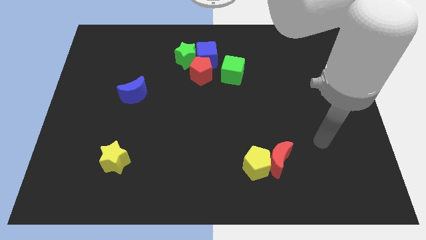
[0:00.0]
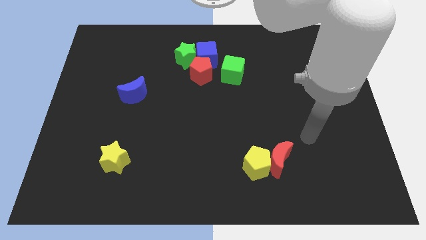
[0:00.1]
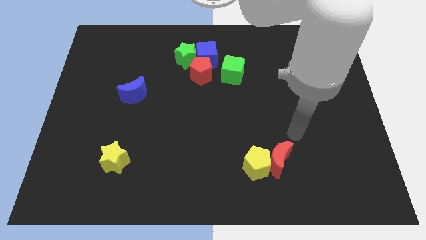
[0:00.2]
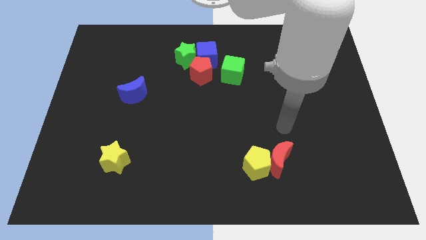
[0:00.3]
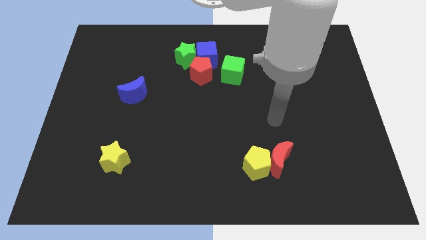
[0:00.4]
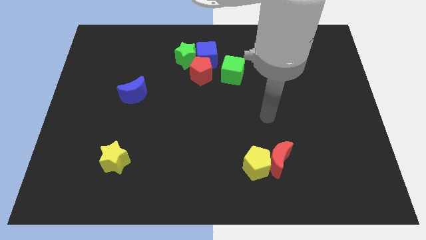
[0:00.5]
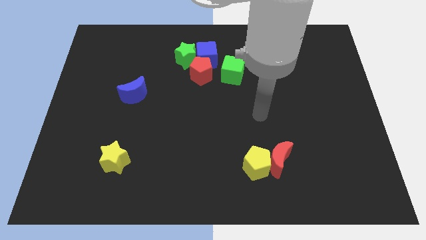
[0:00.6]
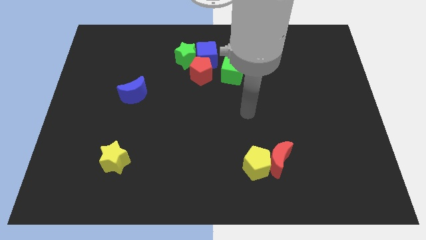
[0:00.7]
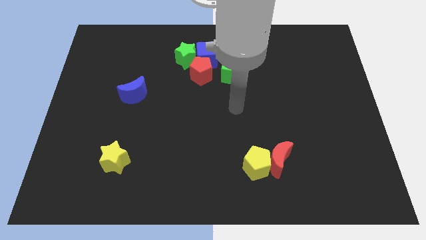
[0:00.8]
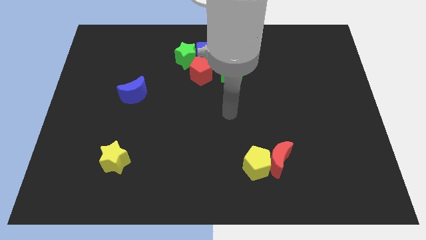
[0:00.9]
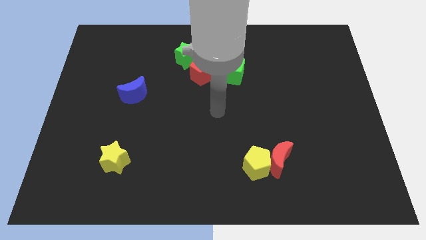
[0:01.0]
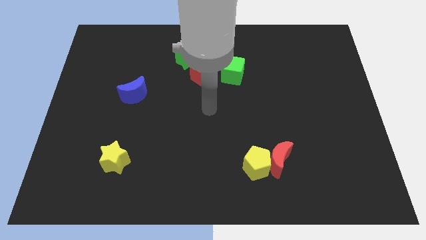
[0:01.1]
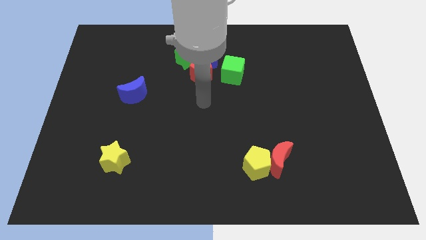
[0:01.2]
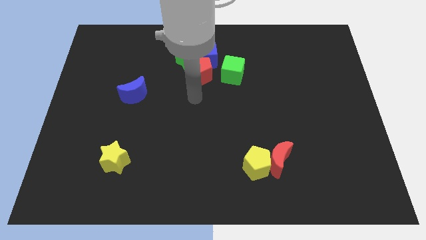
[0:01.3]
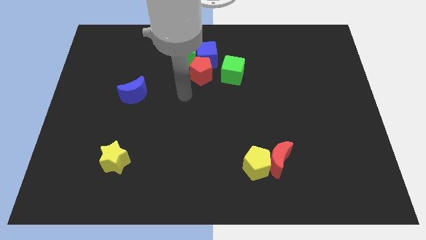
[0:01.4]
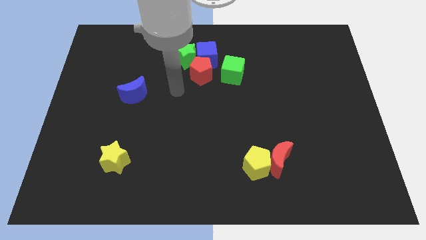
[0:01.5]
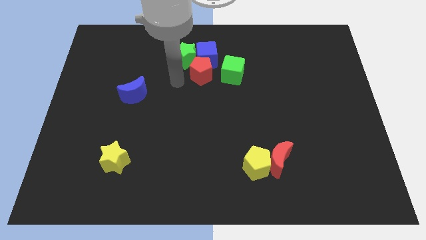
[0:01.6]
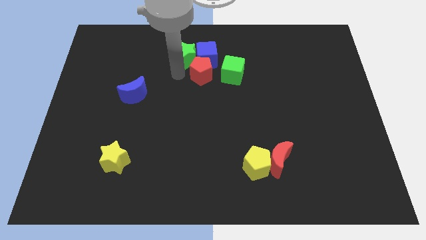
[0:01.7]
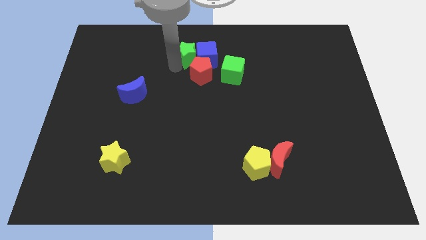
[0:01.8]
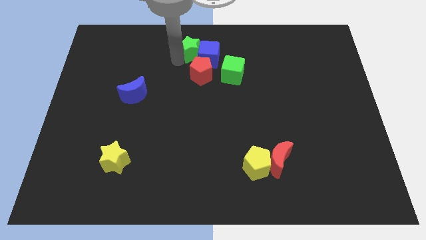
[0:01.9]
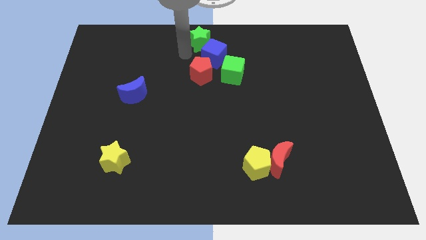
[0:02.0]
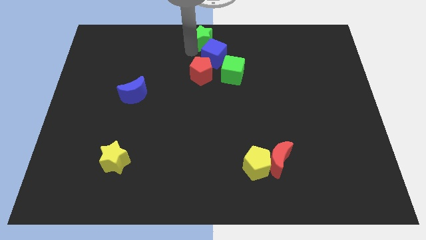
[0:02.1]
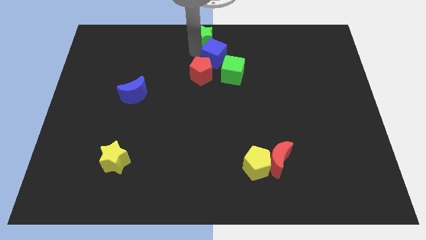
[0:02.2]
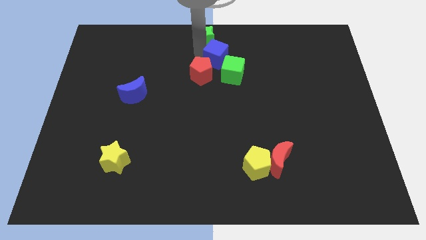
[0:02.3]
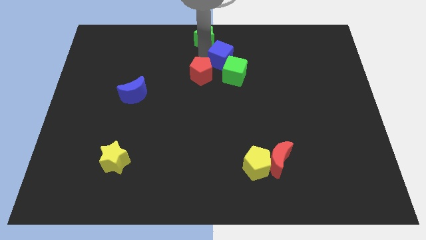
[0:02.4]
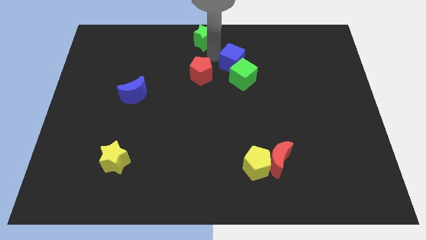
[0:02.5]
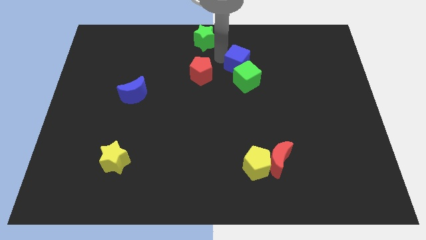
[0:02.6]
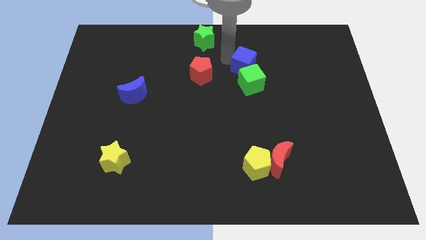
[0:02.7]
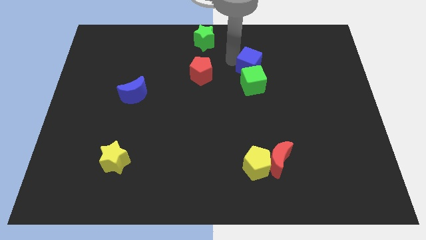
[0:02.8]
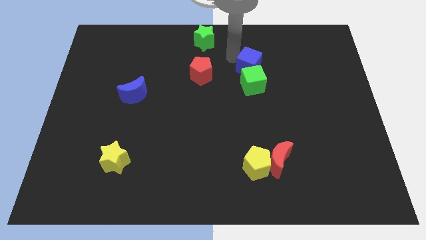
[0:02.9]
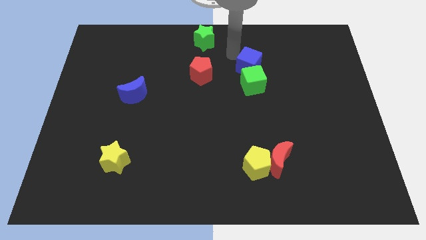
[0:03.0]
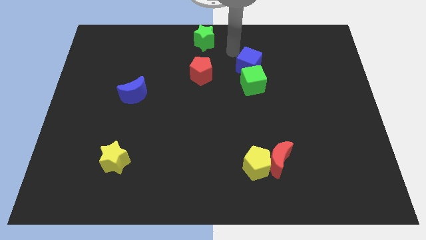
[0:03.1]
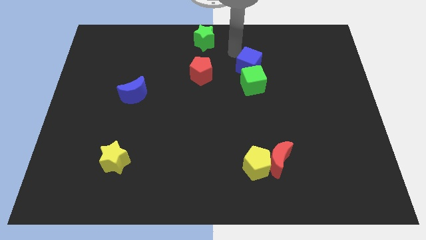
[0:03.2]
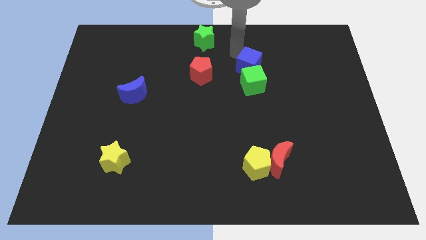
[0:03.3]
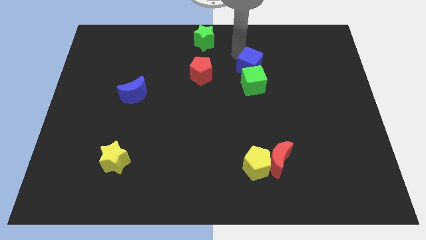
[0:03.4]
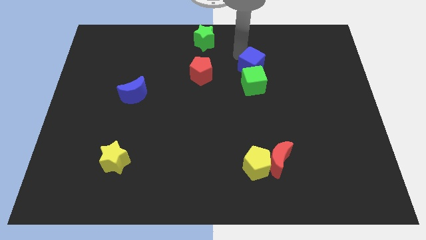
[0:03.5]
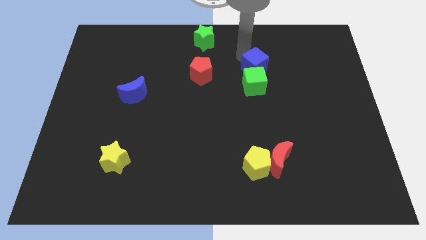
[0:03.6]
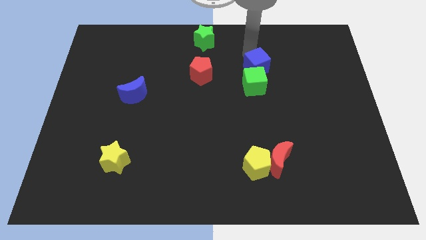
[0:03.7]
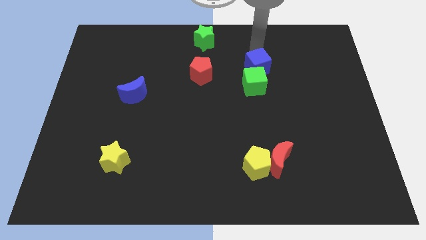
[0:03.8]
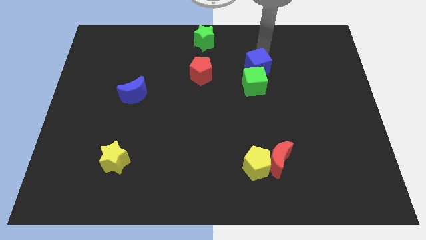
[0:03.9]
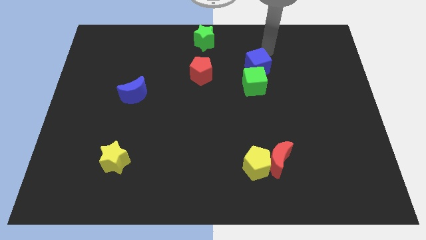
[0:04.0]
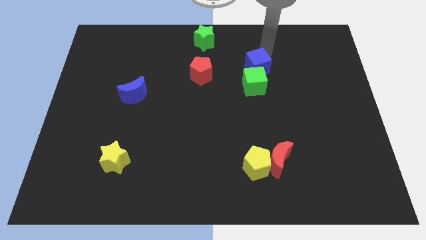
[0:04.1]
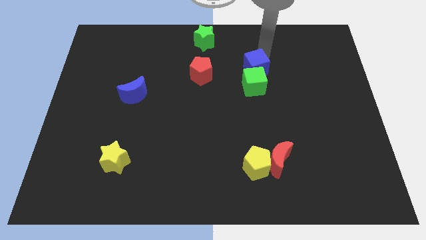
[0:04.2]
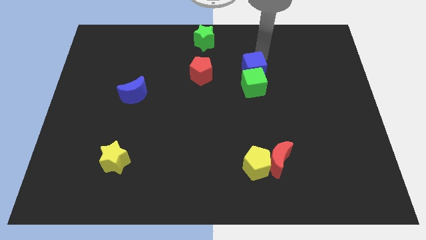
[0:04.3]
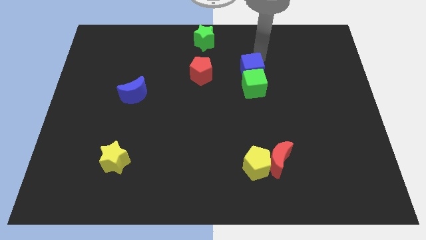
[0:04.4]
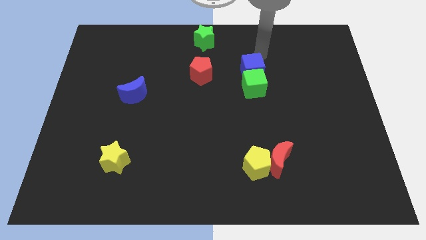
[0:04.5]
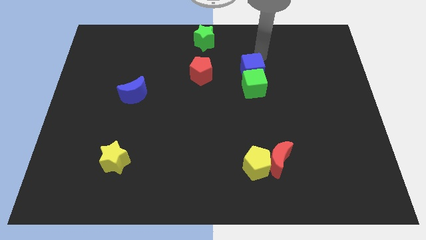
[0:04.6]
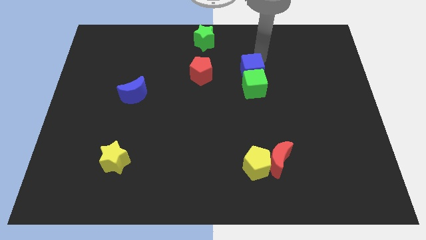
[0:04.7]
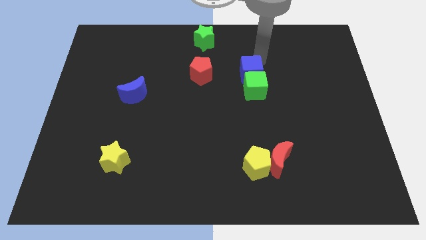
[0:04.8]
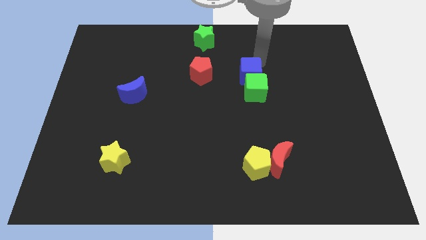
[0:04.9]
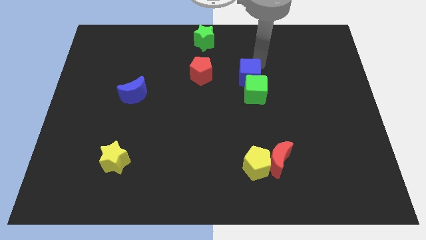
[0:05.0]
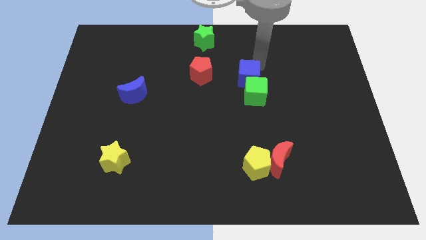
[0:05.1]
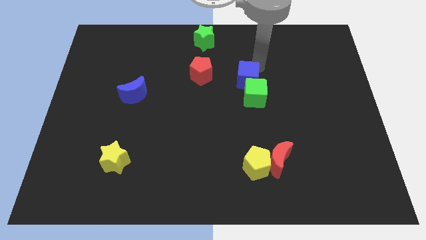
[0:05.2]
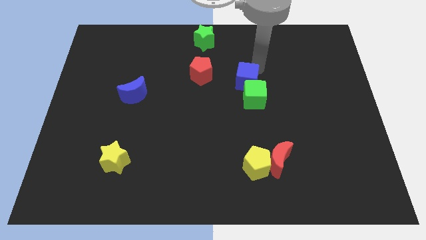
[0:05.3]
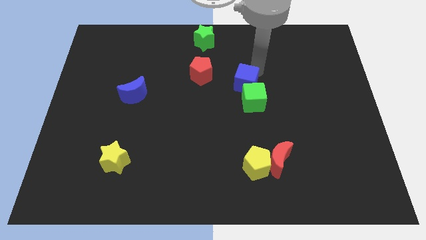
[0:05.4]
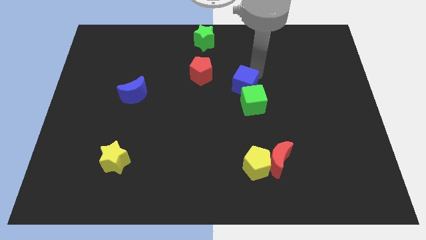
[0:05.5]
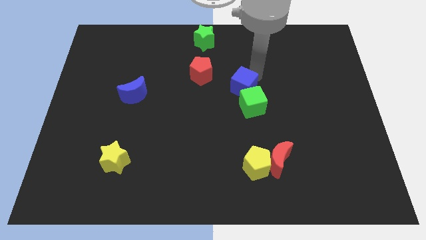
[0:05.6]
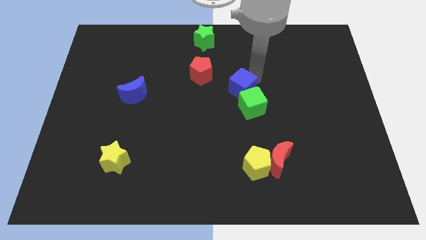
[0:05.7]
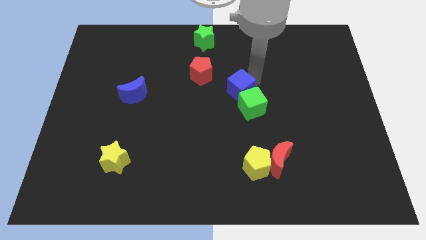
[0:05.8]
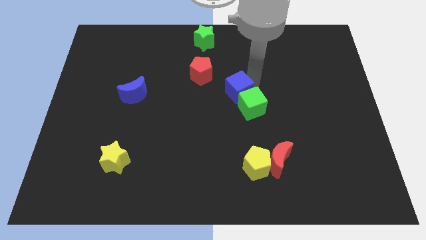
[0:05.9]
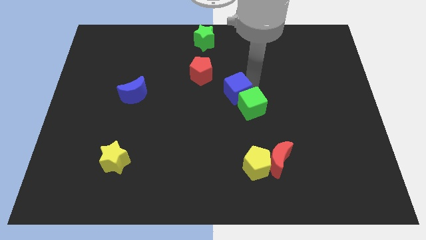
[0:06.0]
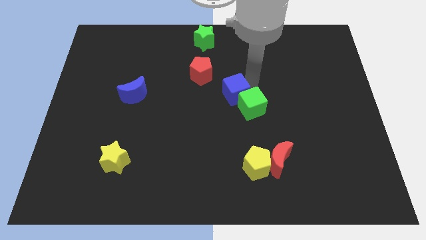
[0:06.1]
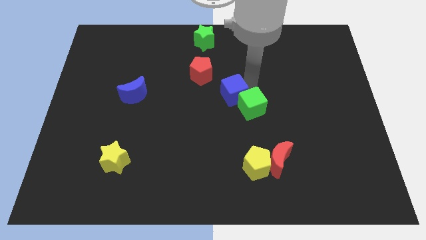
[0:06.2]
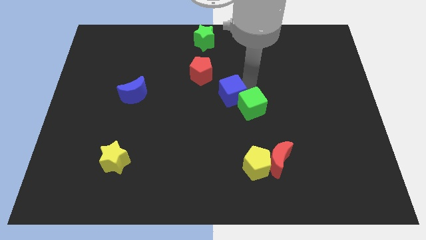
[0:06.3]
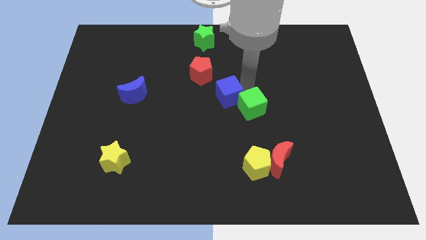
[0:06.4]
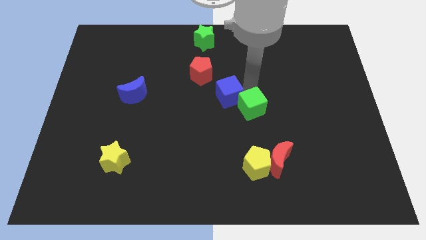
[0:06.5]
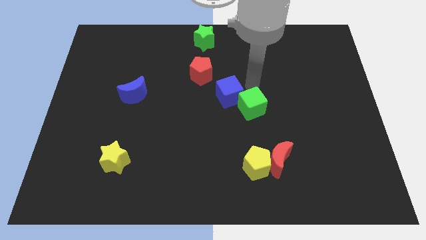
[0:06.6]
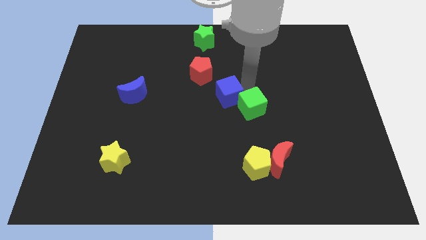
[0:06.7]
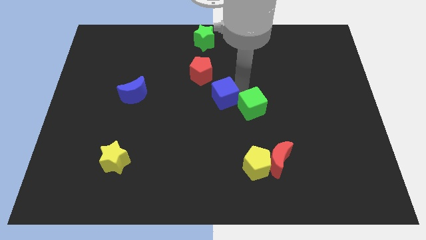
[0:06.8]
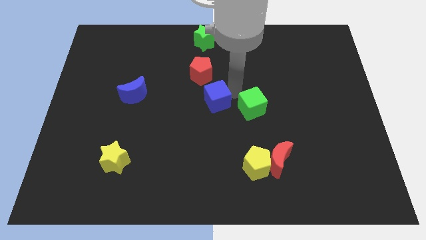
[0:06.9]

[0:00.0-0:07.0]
move the blue cube below the red pentagon

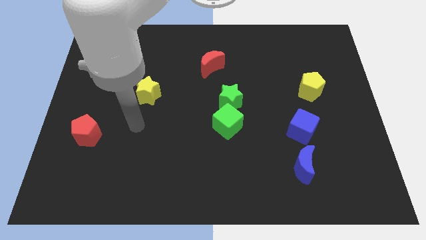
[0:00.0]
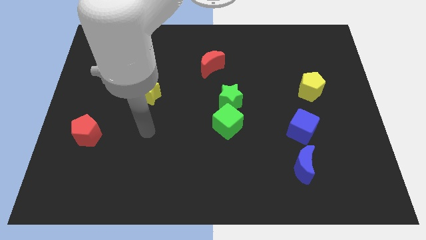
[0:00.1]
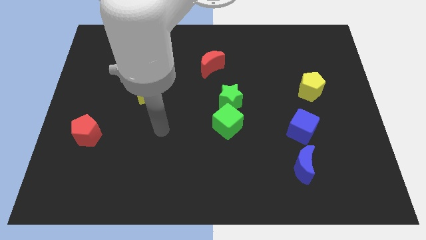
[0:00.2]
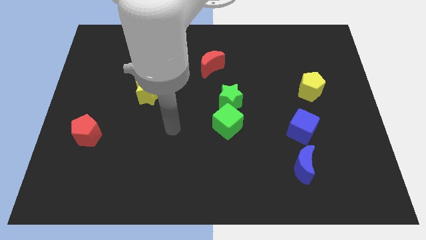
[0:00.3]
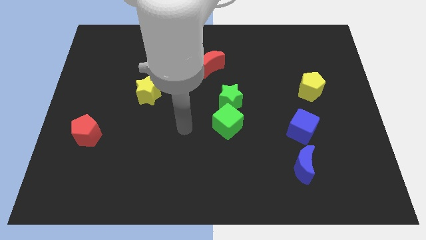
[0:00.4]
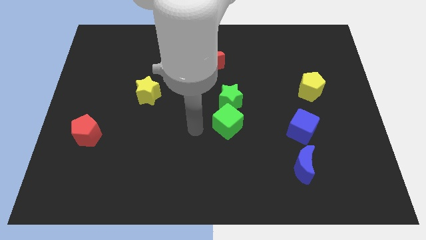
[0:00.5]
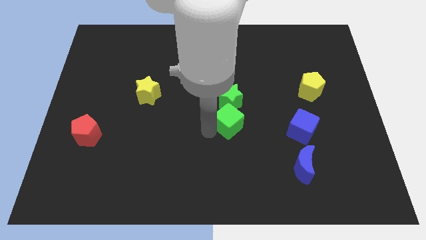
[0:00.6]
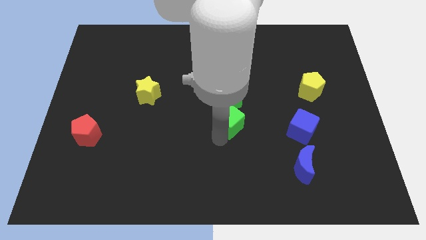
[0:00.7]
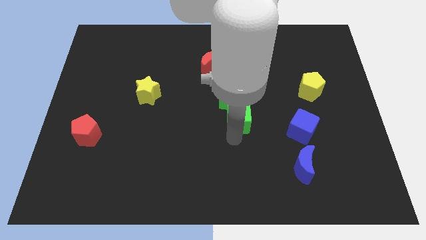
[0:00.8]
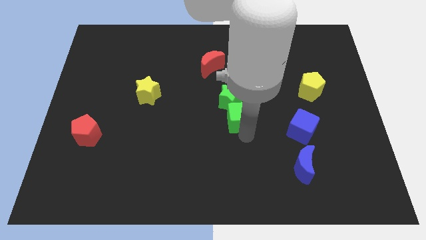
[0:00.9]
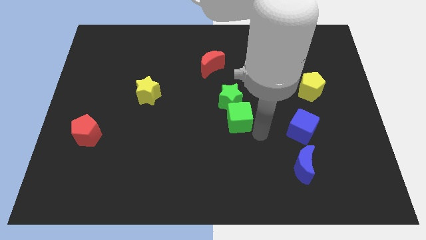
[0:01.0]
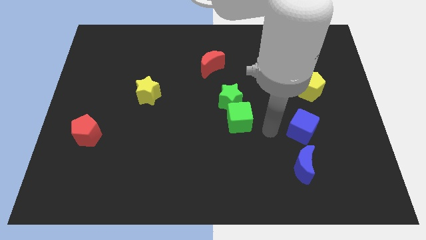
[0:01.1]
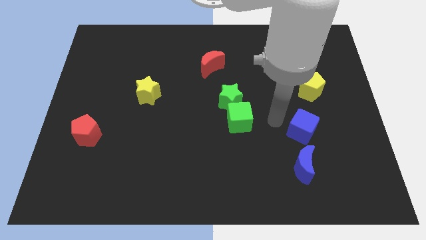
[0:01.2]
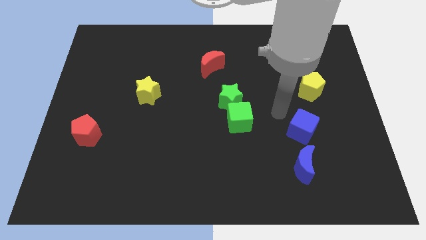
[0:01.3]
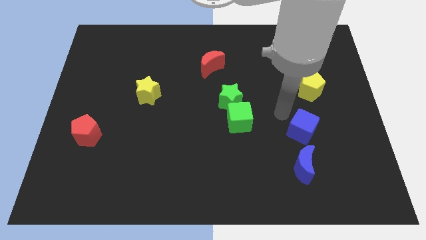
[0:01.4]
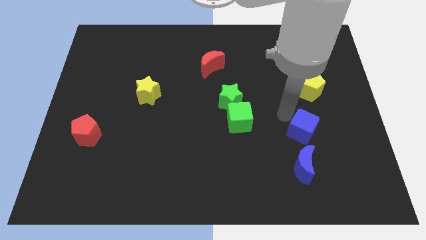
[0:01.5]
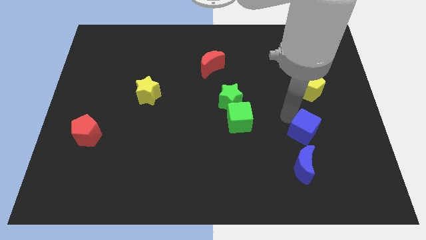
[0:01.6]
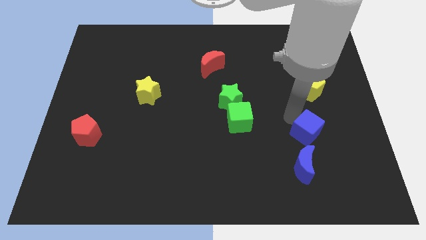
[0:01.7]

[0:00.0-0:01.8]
slide the blue cube to the top right of the blue moon
